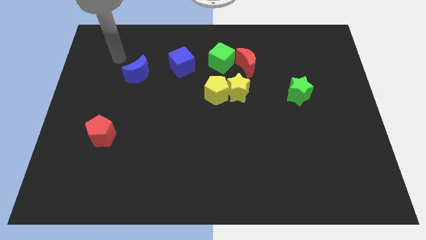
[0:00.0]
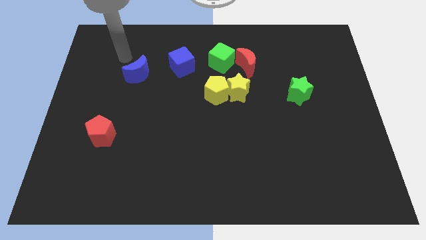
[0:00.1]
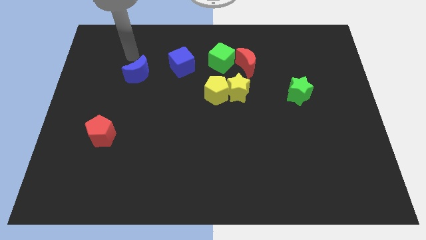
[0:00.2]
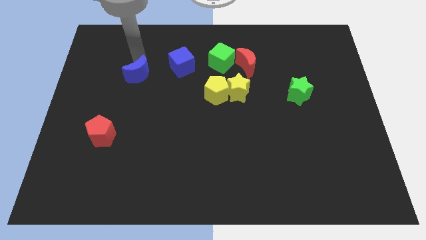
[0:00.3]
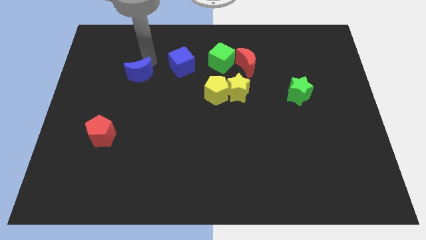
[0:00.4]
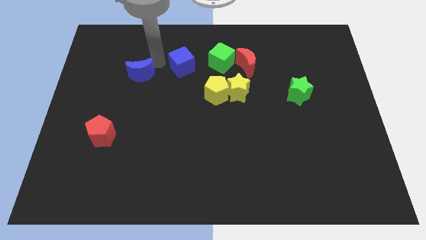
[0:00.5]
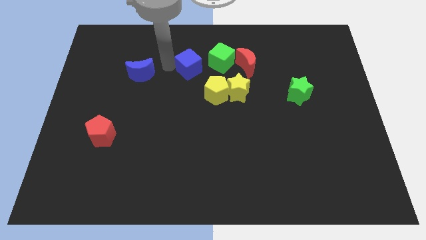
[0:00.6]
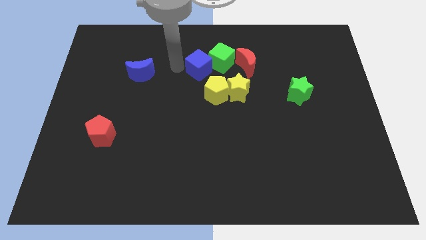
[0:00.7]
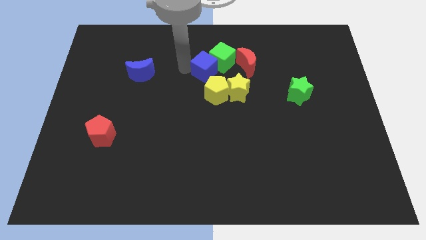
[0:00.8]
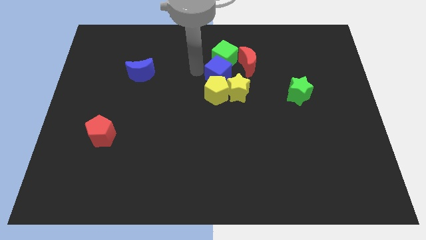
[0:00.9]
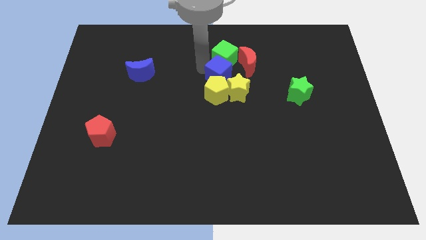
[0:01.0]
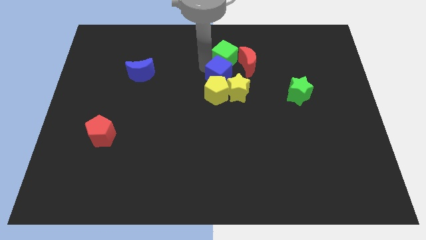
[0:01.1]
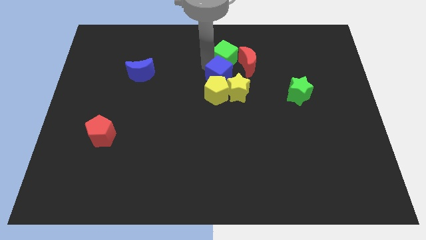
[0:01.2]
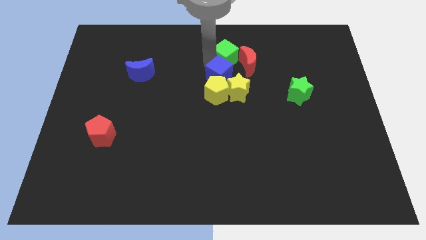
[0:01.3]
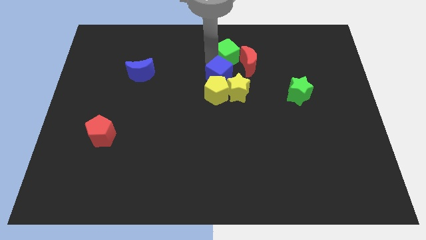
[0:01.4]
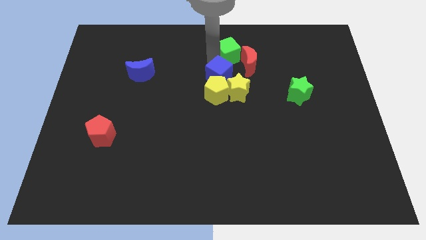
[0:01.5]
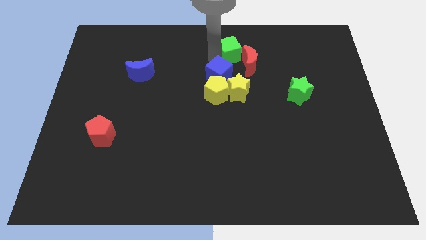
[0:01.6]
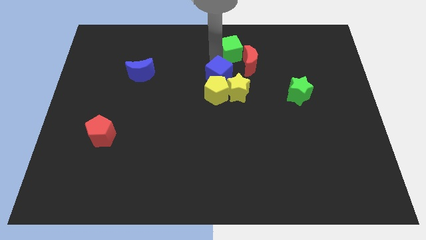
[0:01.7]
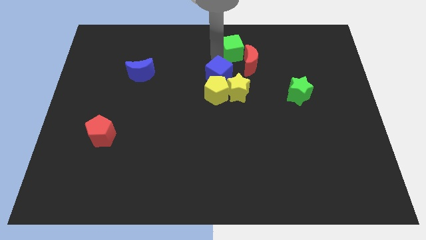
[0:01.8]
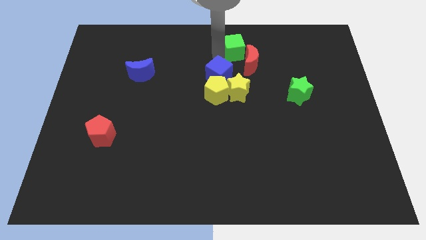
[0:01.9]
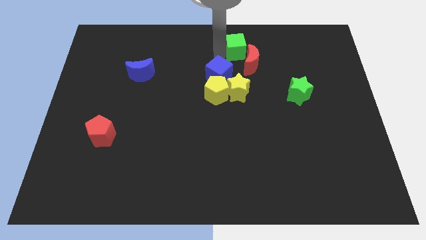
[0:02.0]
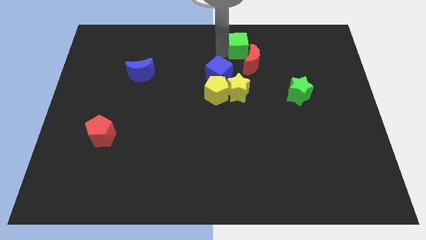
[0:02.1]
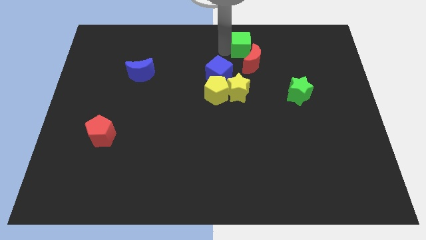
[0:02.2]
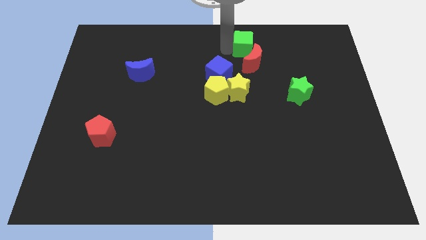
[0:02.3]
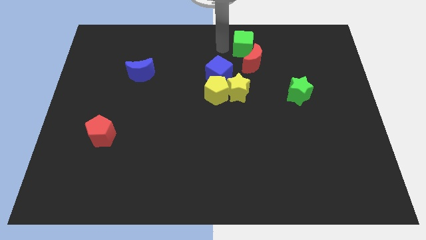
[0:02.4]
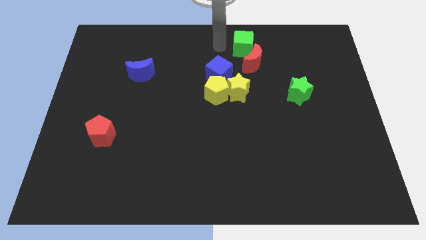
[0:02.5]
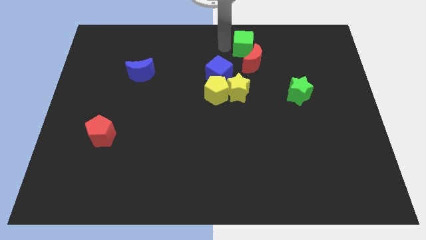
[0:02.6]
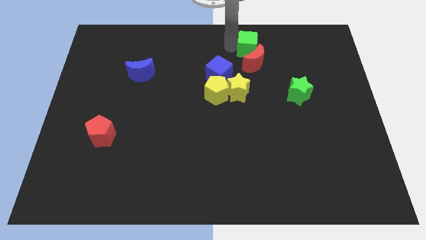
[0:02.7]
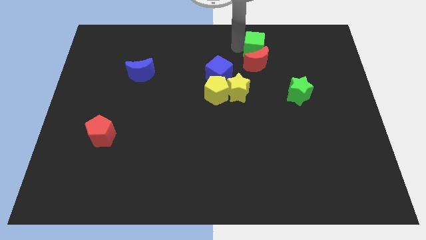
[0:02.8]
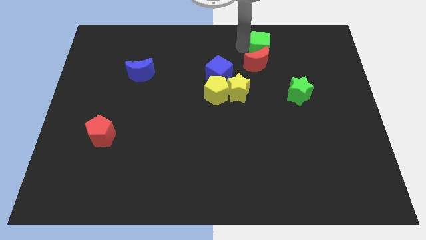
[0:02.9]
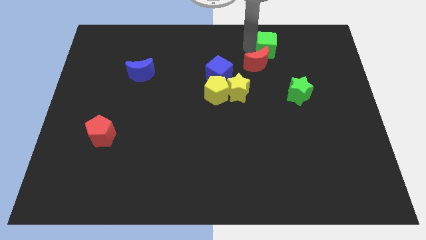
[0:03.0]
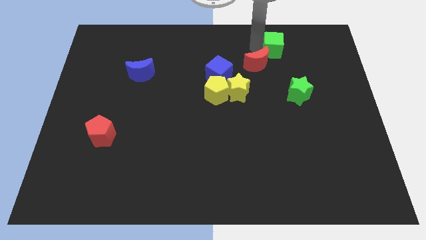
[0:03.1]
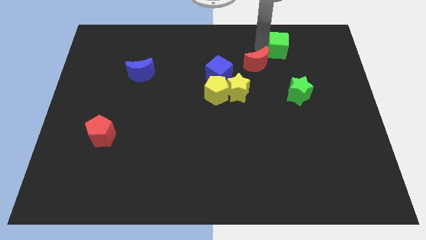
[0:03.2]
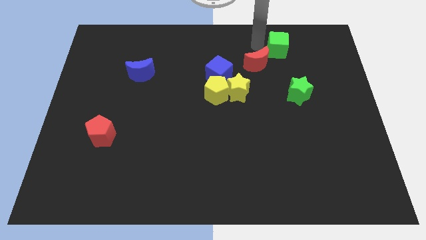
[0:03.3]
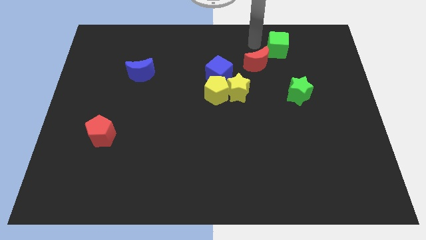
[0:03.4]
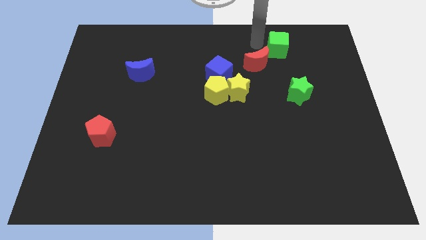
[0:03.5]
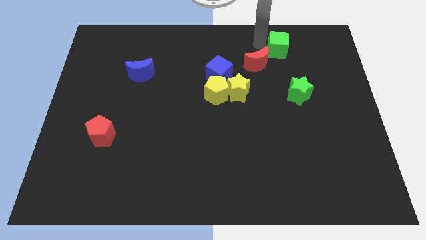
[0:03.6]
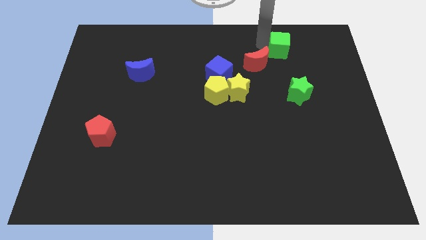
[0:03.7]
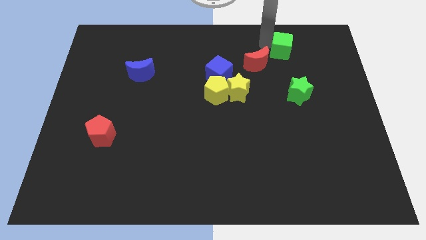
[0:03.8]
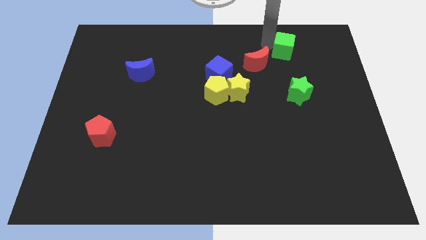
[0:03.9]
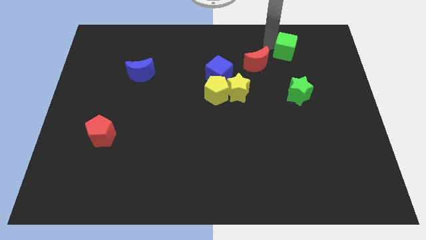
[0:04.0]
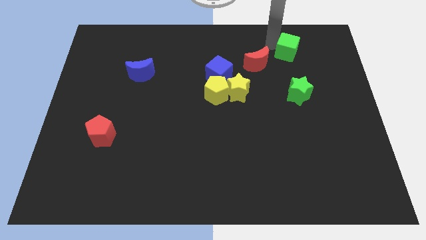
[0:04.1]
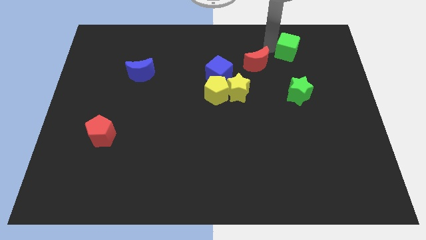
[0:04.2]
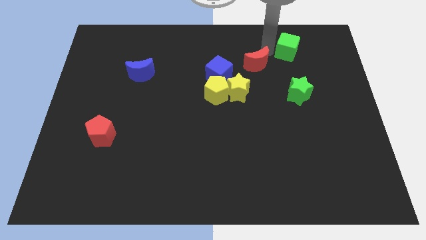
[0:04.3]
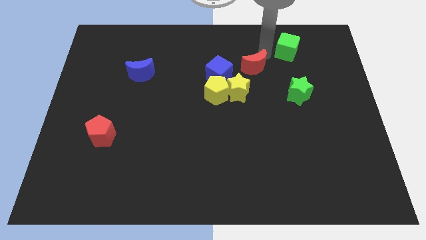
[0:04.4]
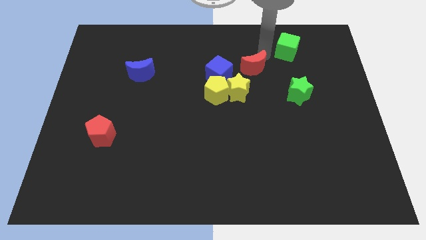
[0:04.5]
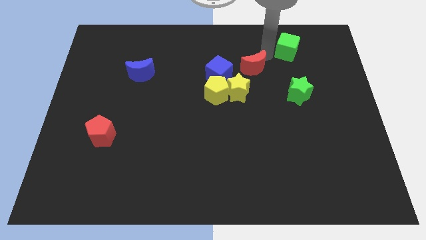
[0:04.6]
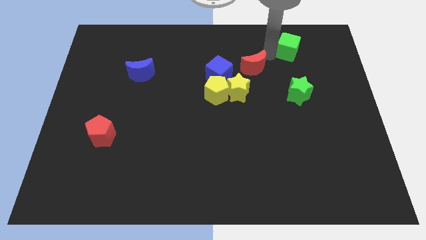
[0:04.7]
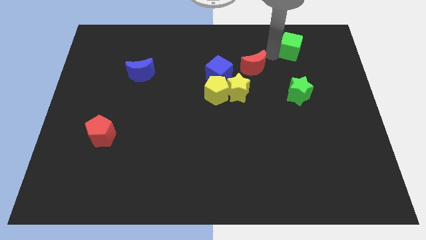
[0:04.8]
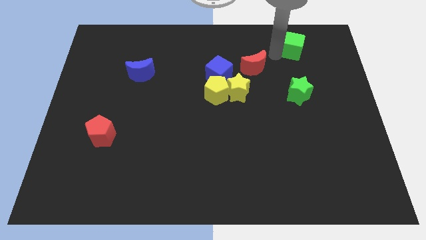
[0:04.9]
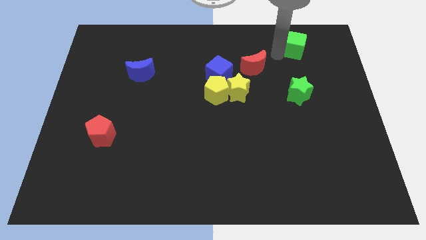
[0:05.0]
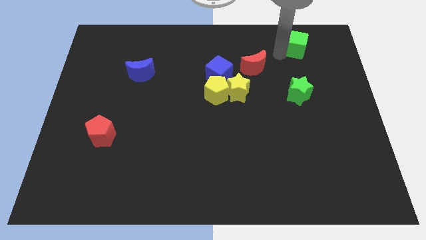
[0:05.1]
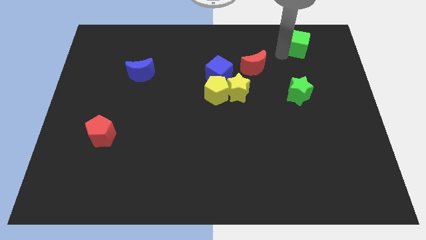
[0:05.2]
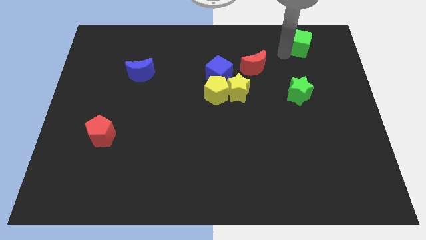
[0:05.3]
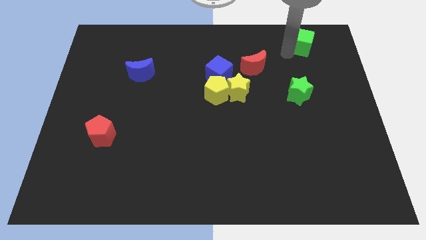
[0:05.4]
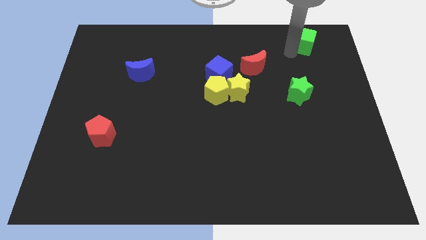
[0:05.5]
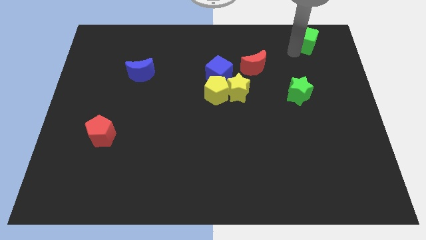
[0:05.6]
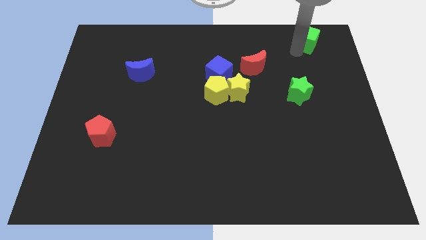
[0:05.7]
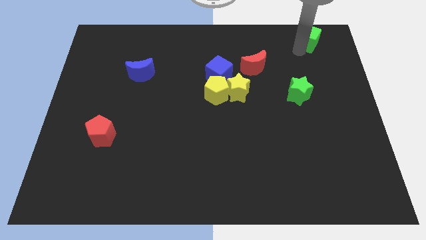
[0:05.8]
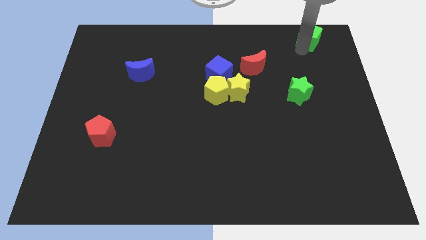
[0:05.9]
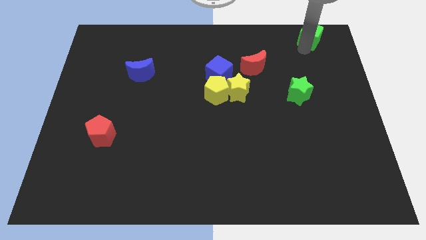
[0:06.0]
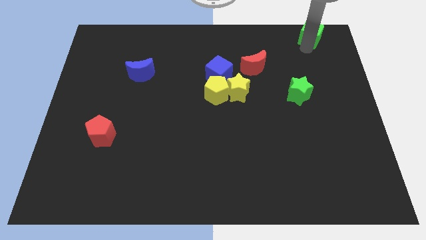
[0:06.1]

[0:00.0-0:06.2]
push the green cube to the top right of the board
